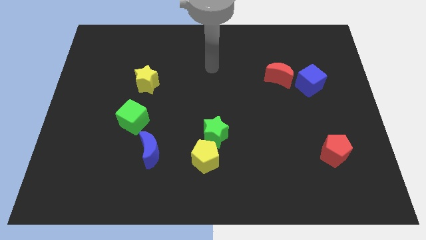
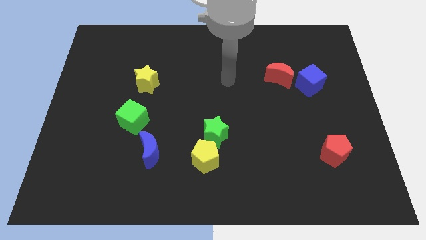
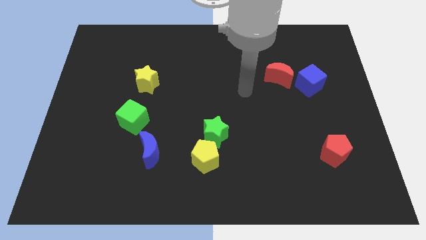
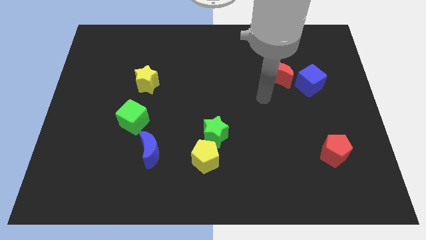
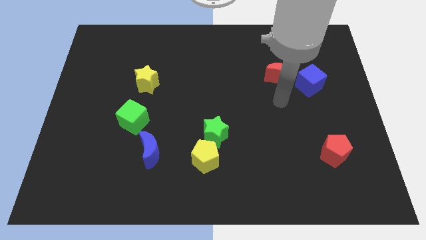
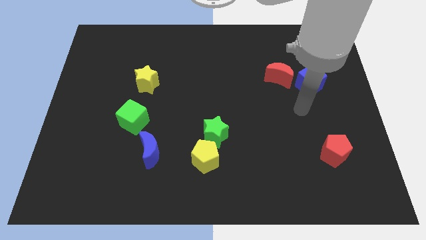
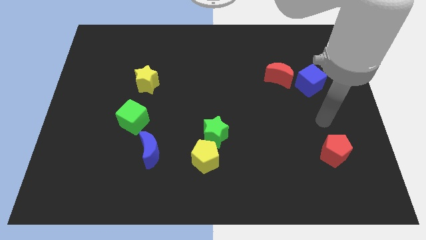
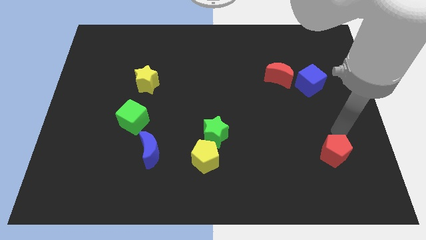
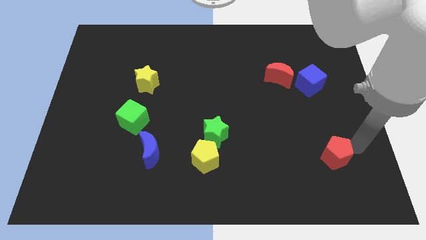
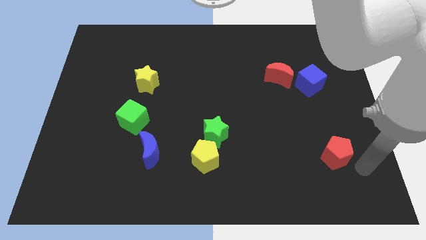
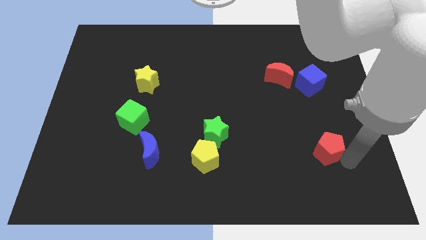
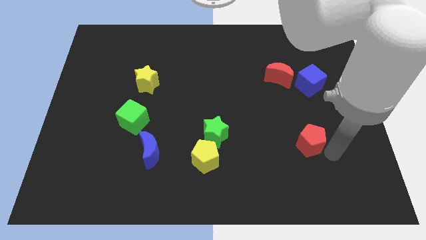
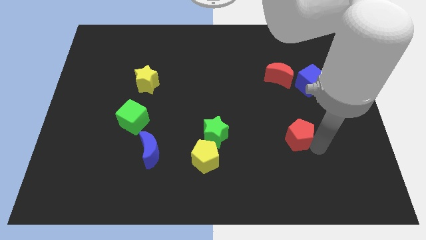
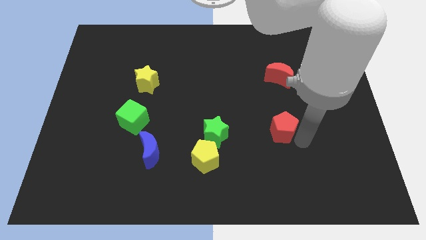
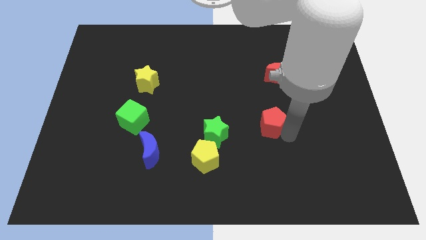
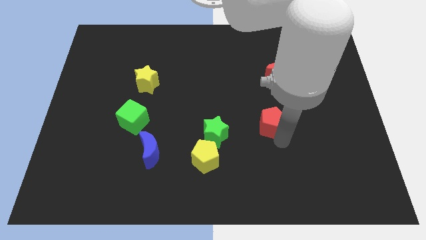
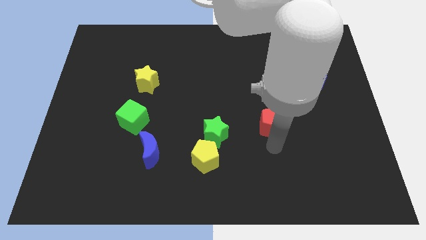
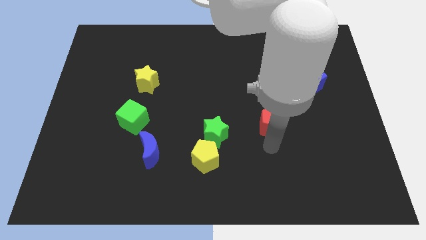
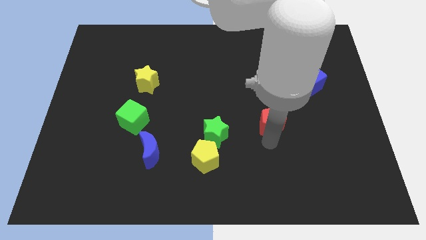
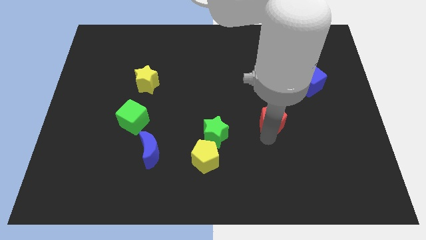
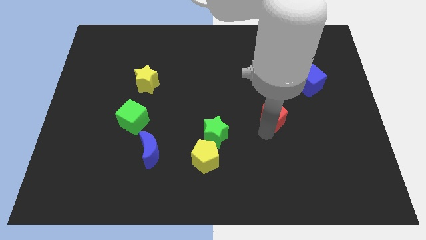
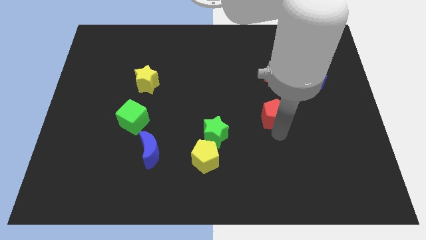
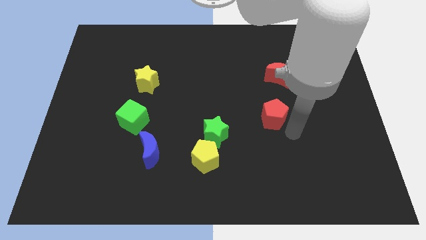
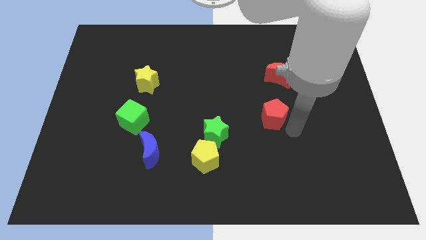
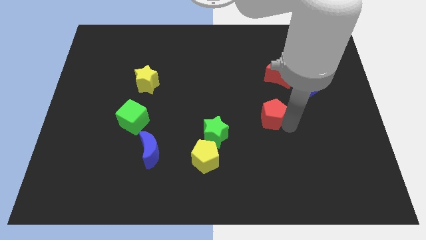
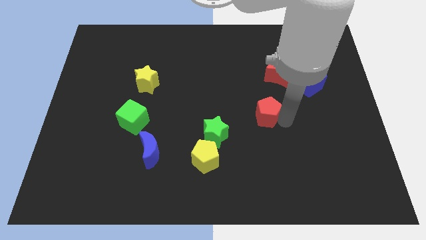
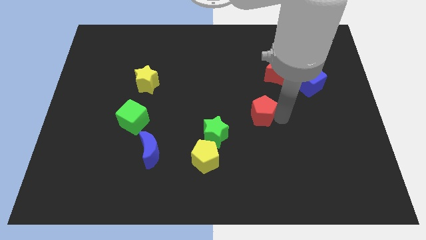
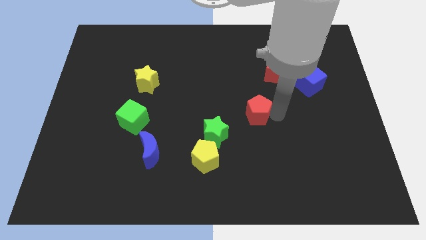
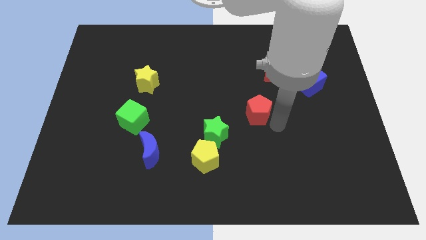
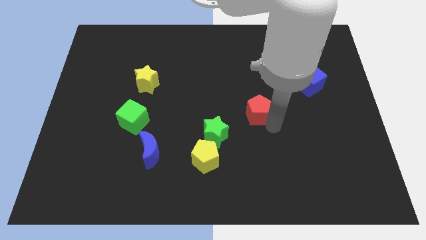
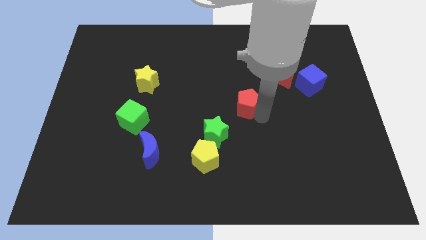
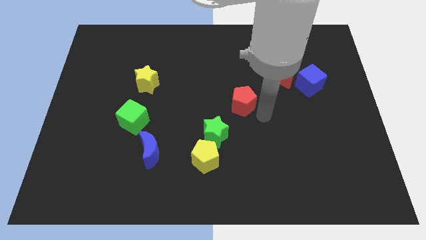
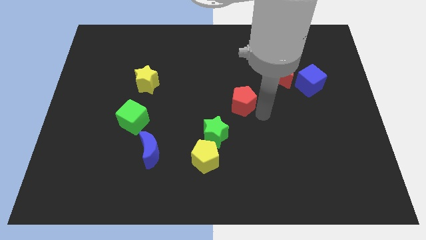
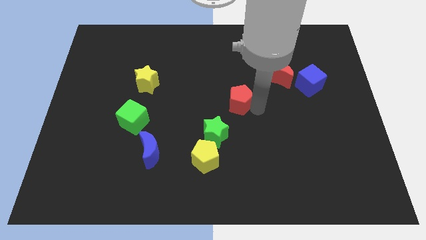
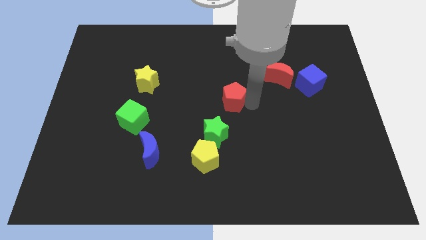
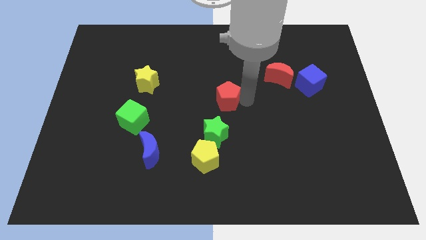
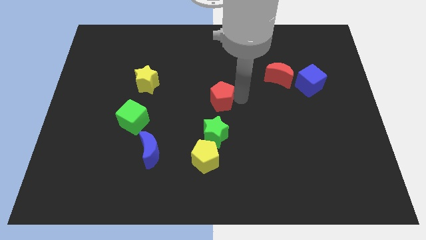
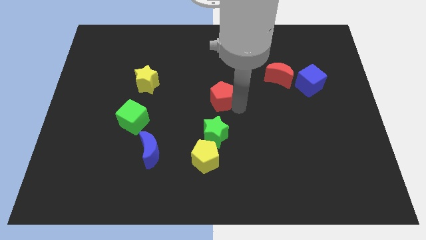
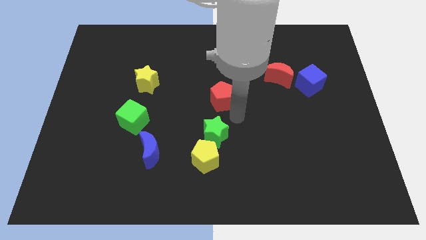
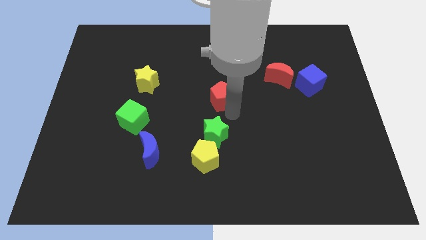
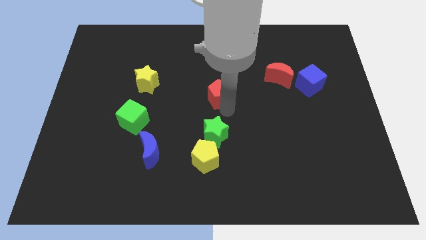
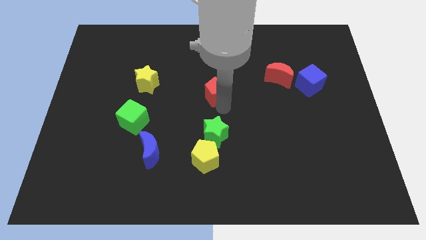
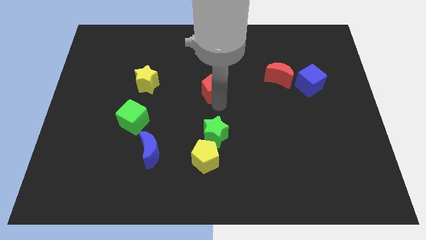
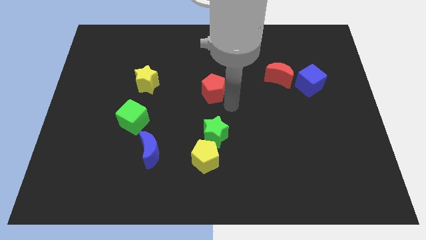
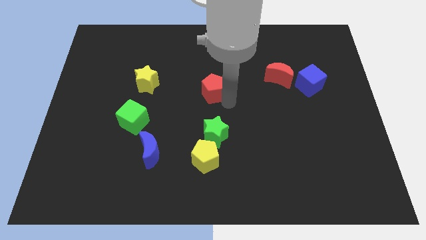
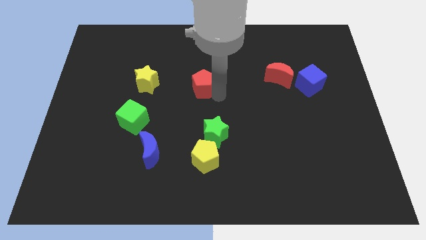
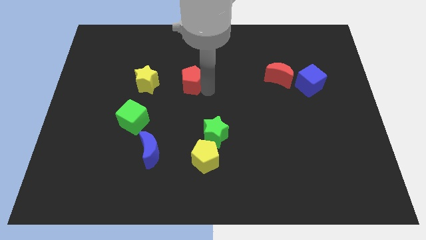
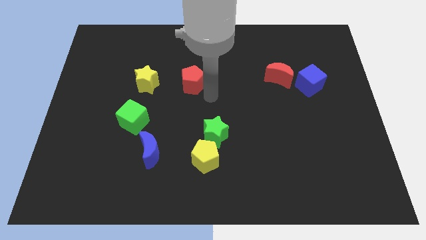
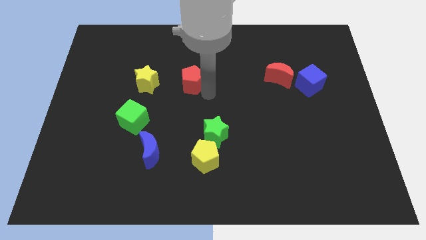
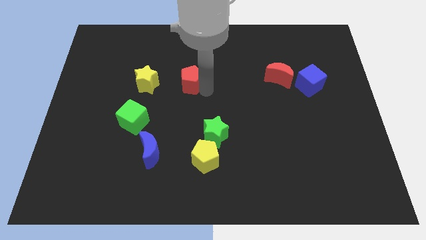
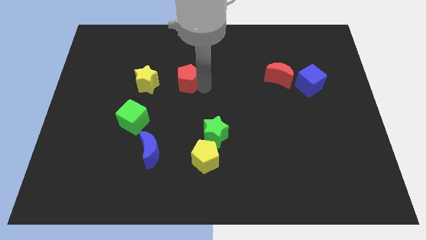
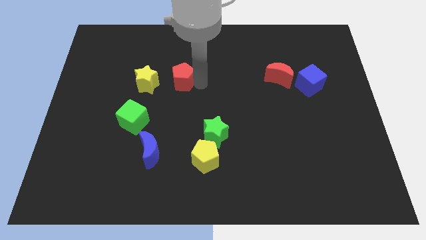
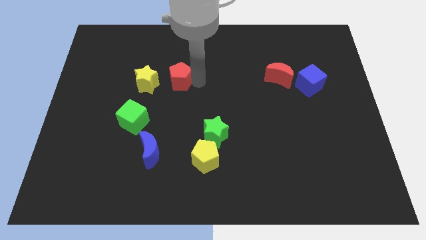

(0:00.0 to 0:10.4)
move the red pentagon to the top right side of the yellow star

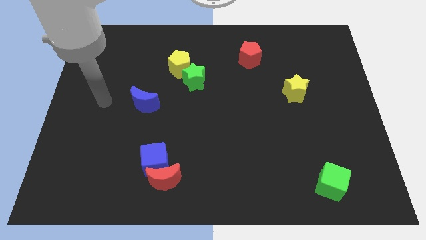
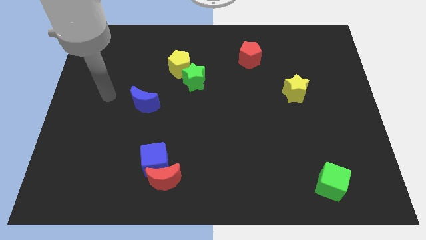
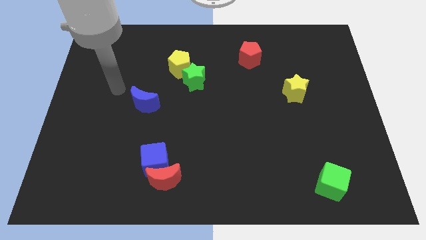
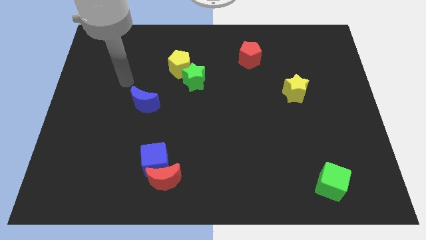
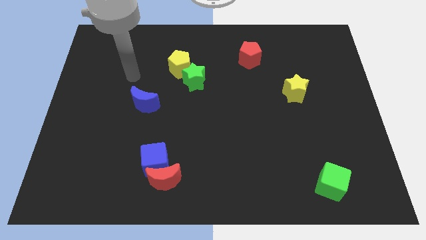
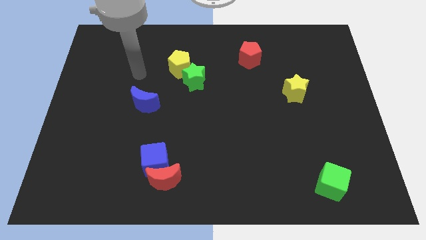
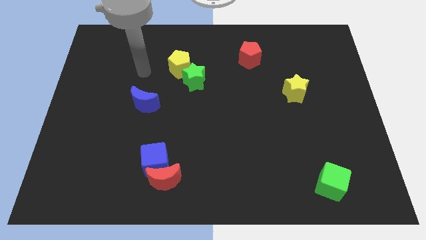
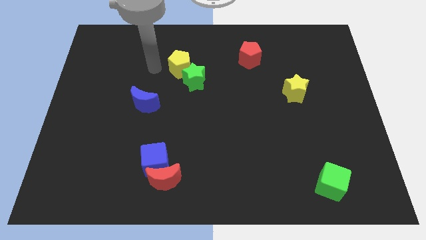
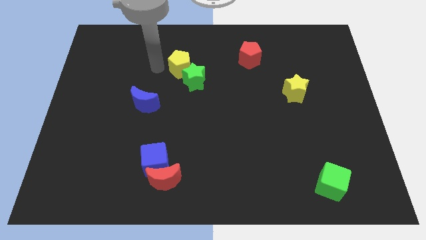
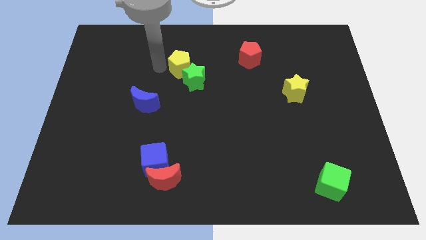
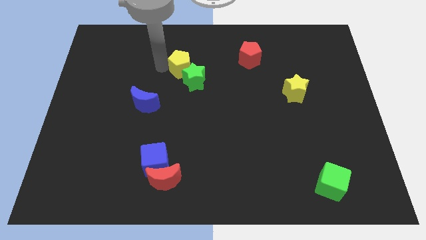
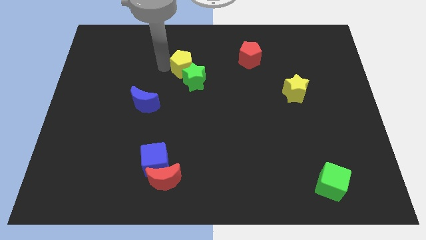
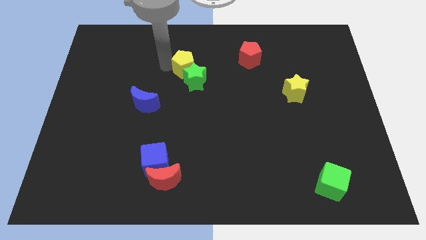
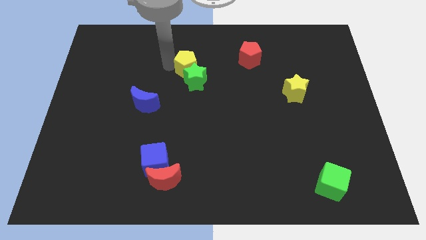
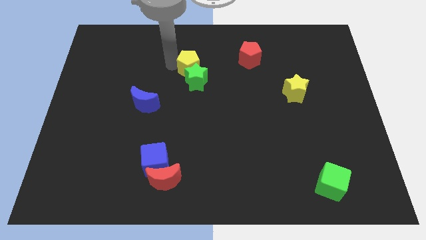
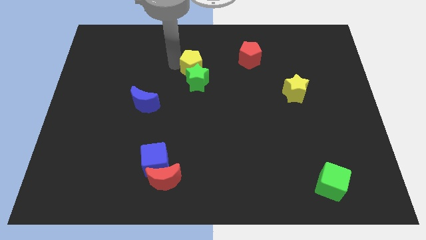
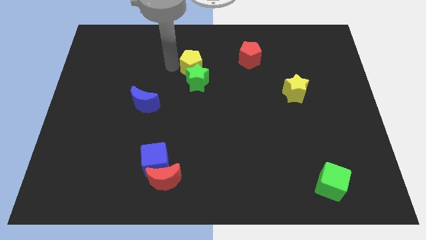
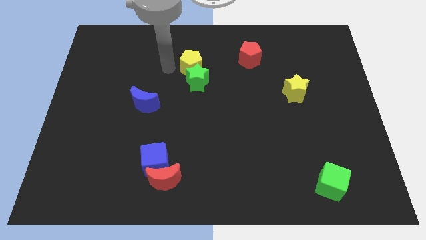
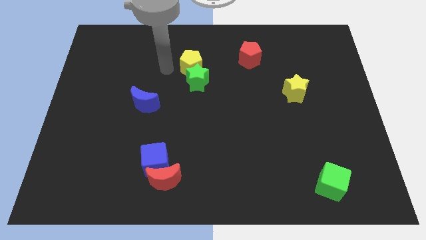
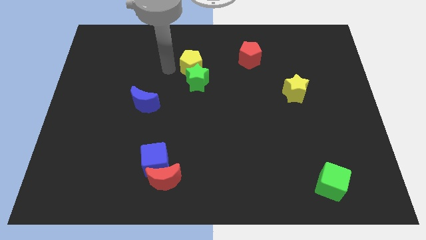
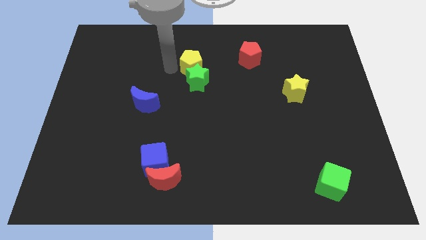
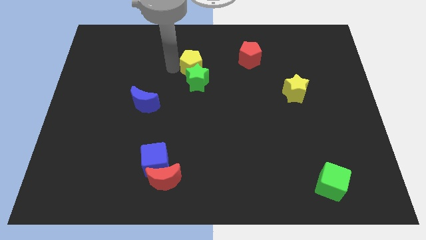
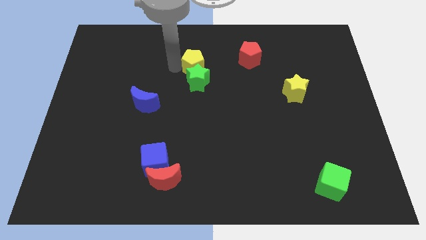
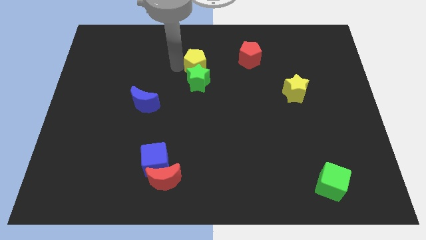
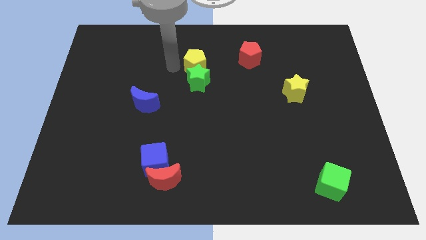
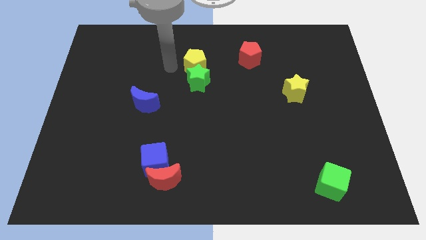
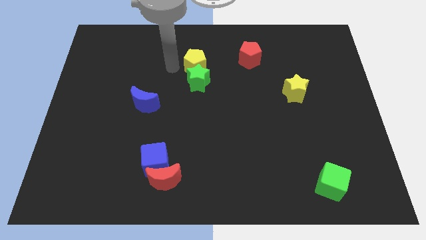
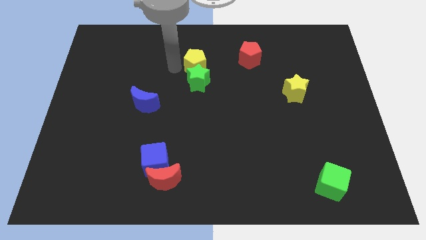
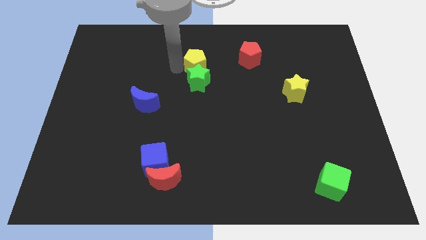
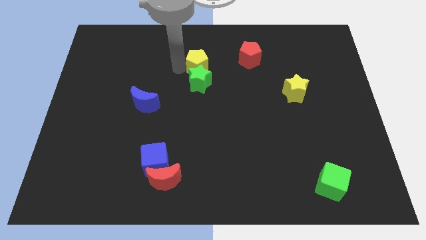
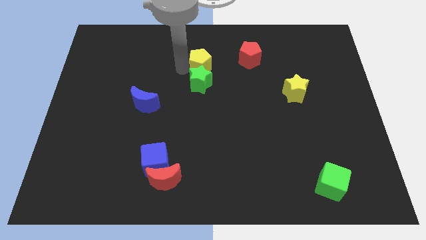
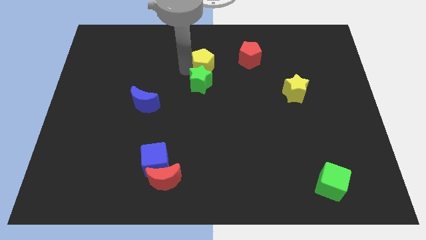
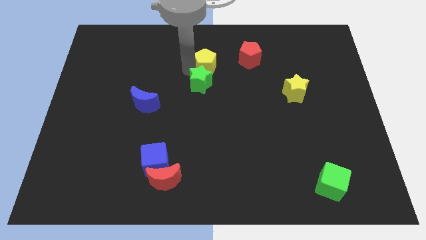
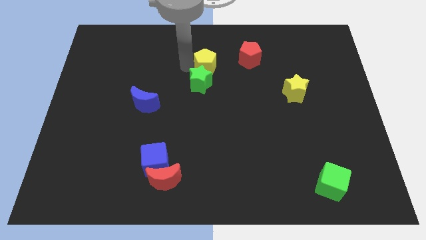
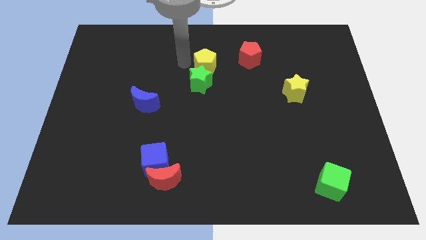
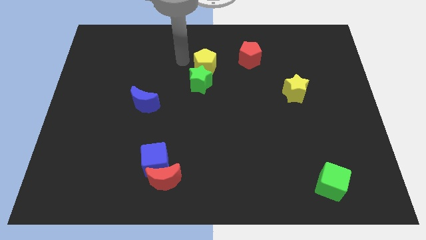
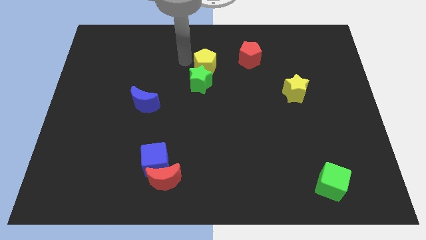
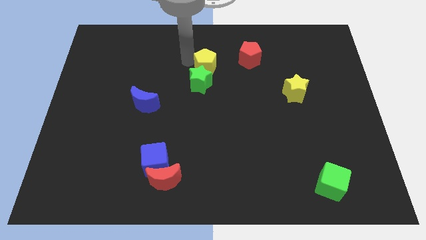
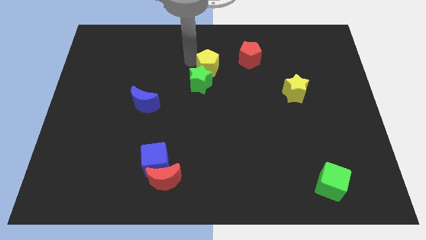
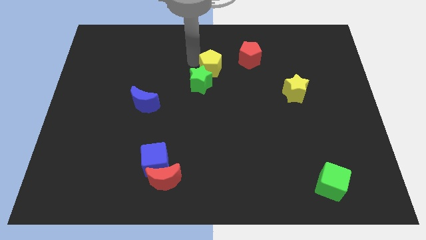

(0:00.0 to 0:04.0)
put the yellow pentagon to the bottom left side of the red pentagon
